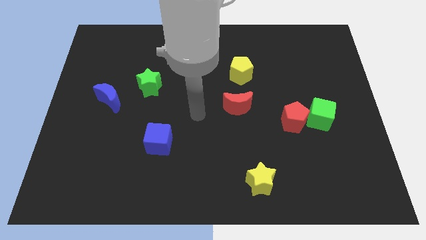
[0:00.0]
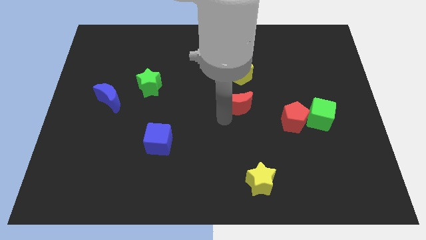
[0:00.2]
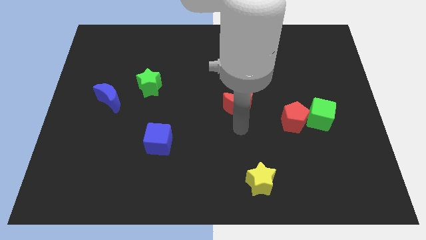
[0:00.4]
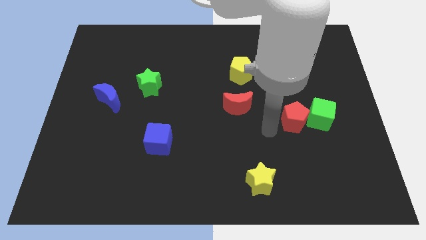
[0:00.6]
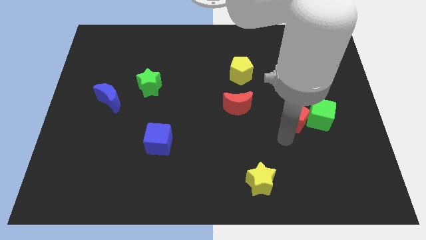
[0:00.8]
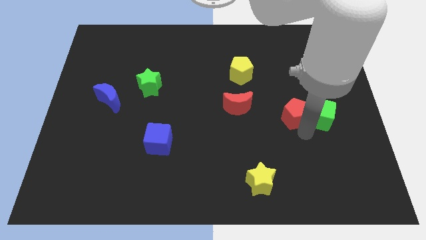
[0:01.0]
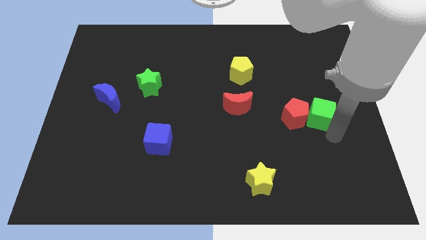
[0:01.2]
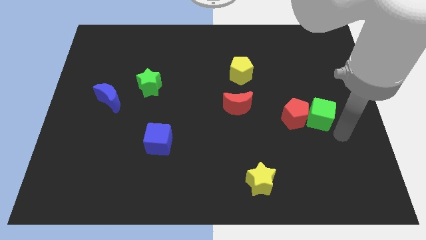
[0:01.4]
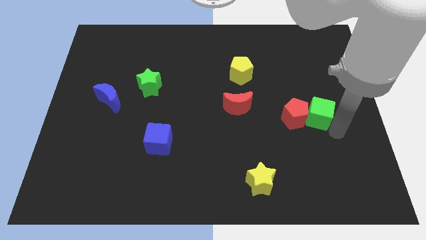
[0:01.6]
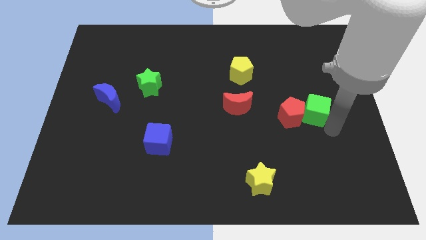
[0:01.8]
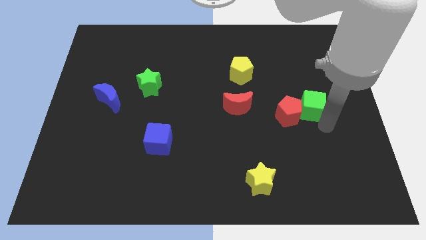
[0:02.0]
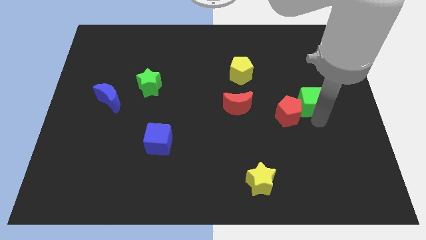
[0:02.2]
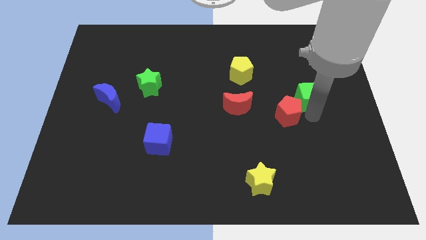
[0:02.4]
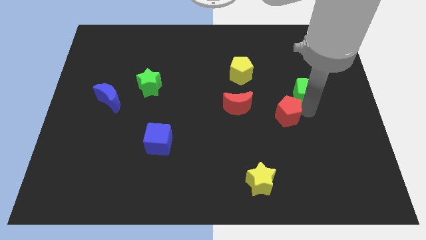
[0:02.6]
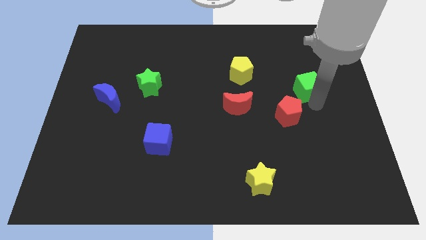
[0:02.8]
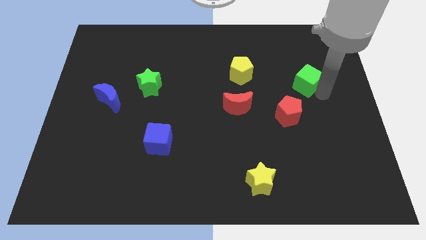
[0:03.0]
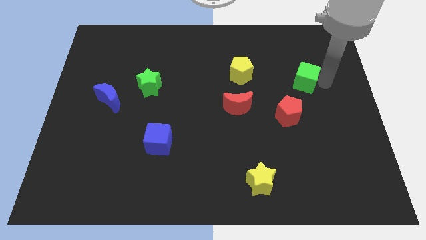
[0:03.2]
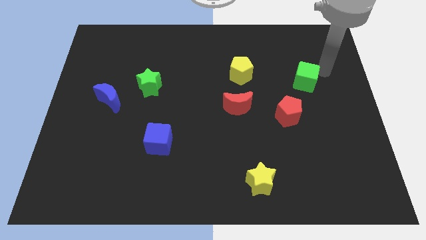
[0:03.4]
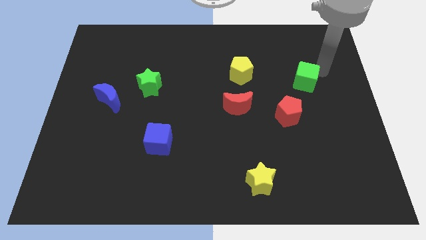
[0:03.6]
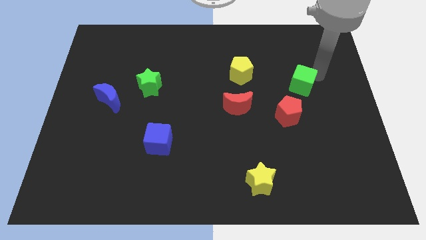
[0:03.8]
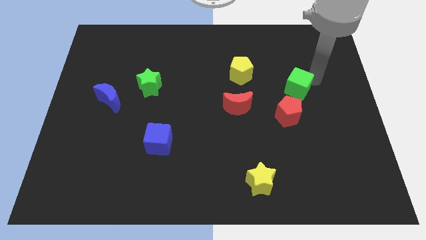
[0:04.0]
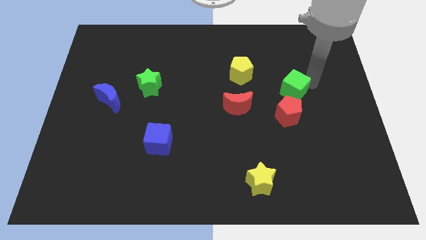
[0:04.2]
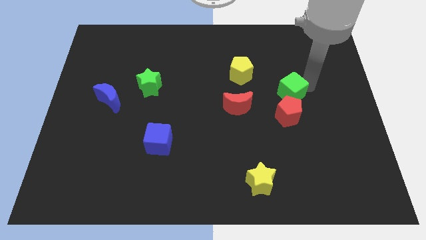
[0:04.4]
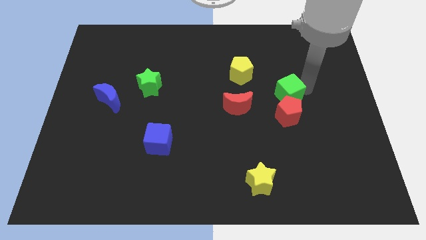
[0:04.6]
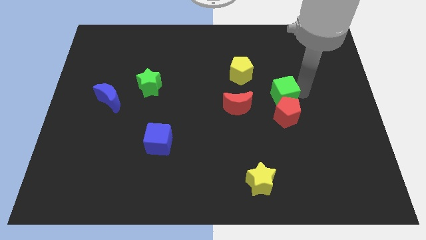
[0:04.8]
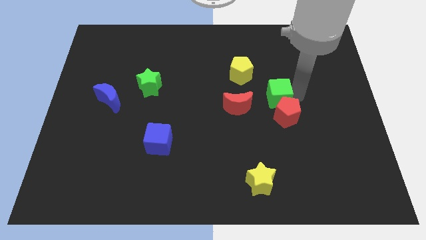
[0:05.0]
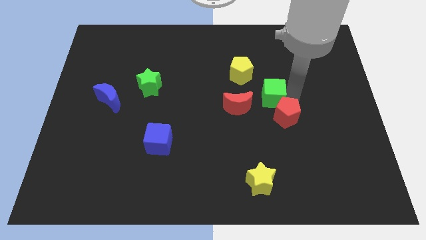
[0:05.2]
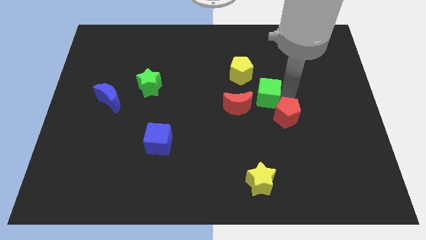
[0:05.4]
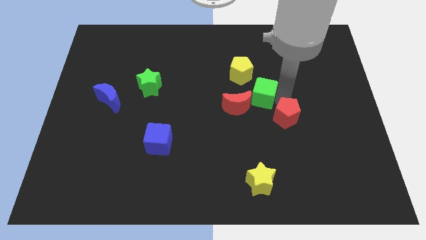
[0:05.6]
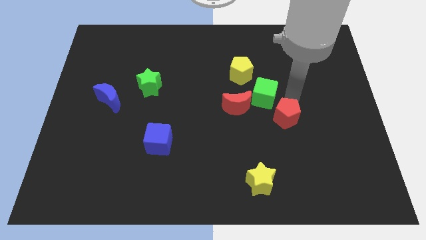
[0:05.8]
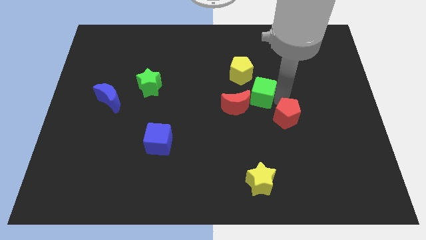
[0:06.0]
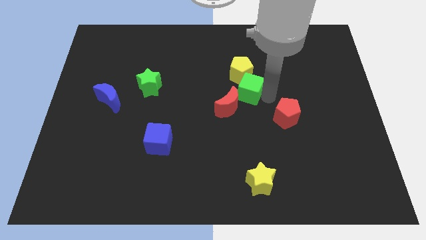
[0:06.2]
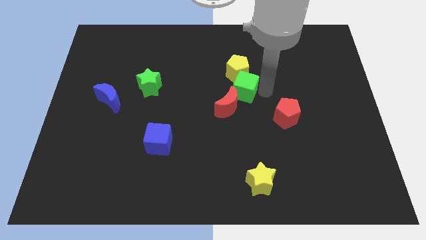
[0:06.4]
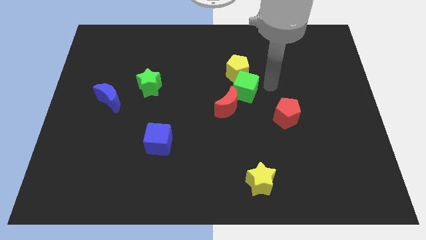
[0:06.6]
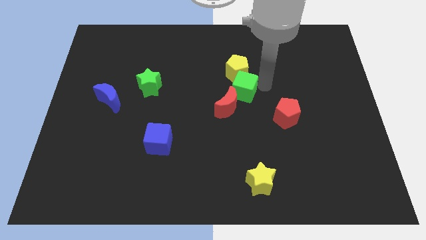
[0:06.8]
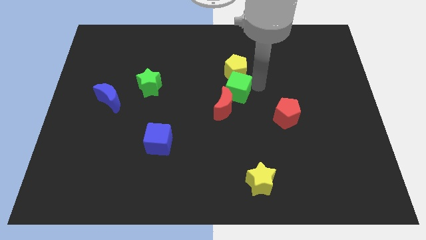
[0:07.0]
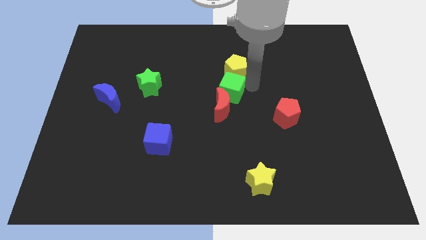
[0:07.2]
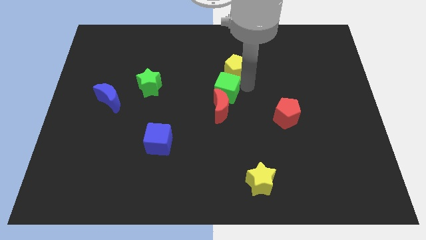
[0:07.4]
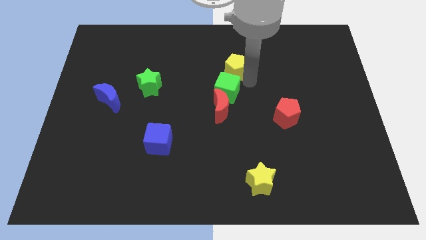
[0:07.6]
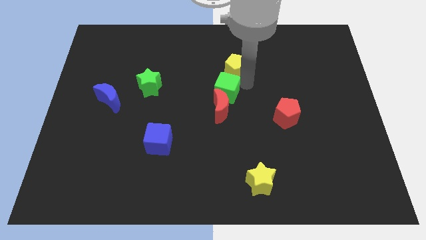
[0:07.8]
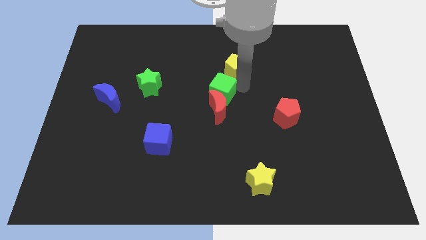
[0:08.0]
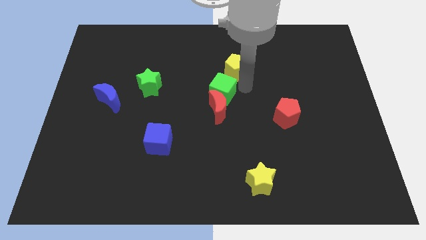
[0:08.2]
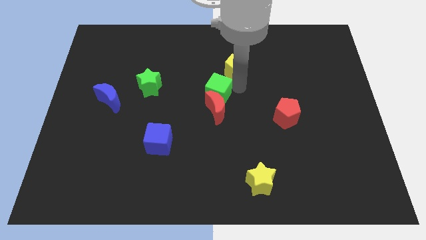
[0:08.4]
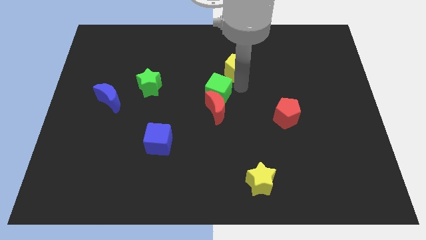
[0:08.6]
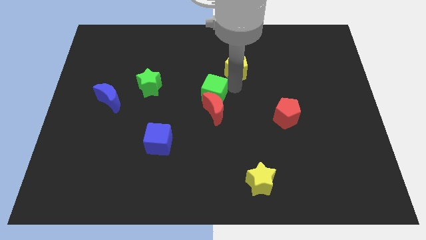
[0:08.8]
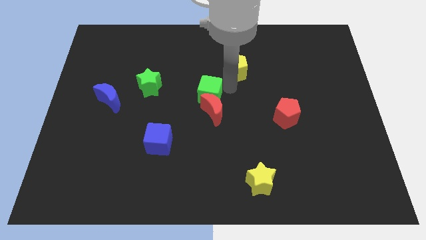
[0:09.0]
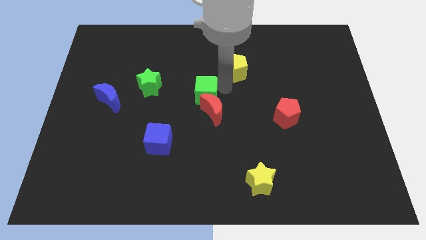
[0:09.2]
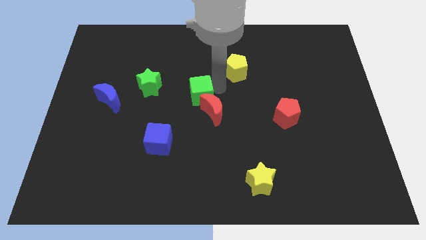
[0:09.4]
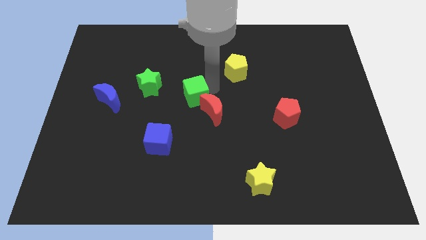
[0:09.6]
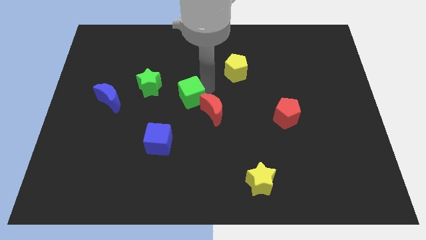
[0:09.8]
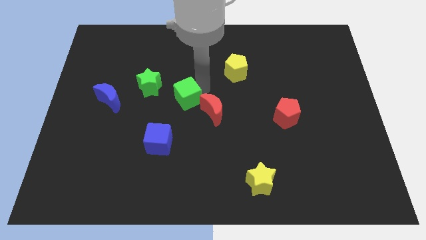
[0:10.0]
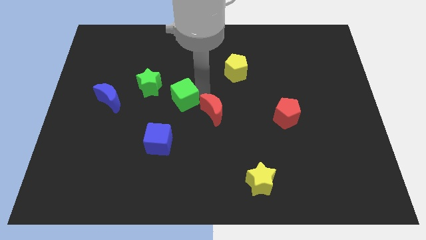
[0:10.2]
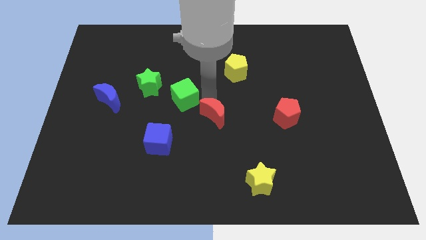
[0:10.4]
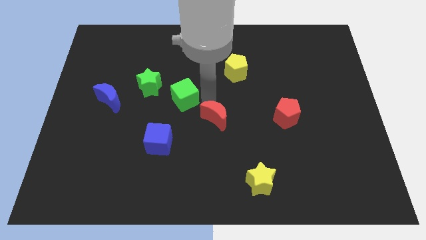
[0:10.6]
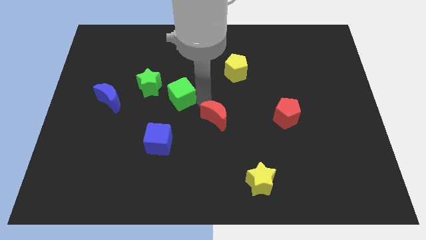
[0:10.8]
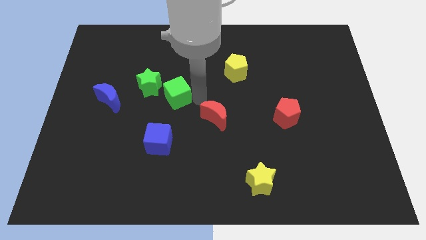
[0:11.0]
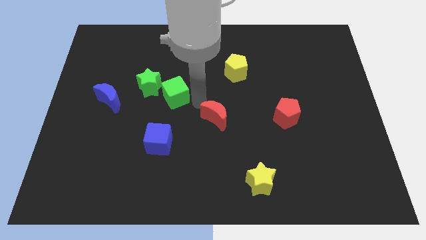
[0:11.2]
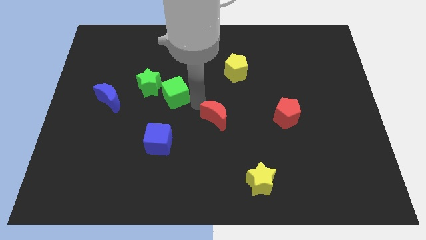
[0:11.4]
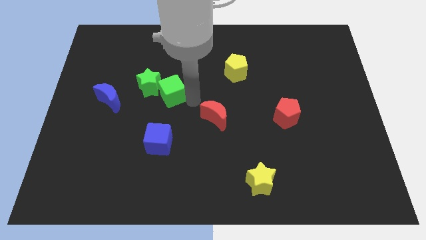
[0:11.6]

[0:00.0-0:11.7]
move the green cube close to the green star

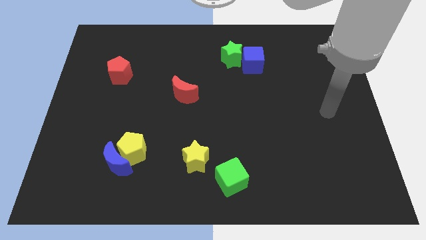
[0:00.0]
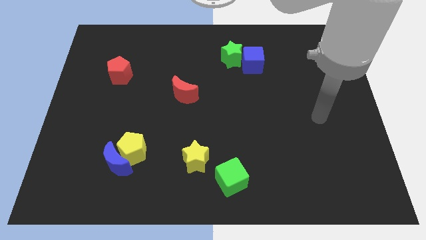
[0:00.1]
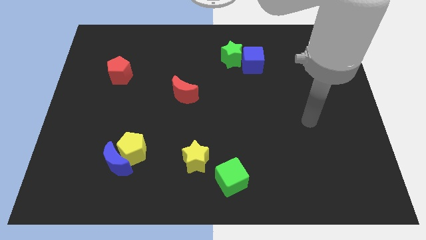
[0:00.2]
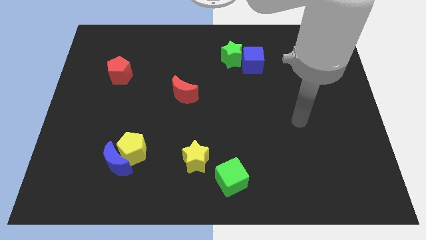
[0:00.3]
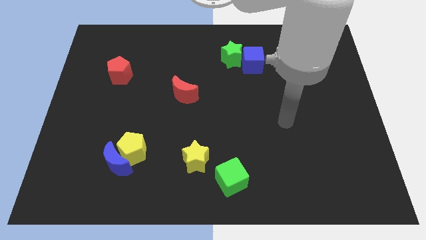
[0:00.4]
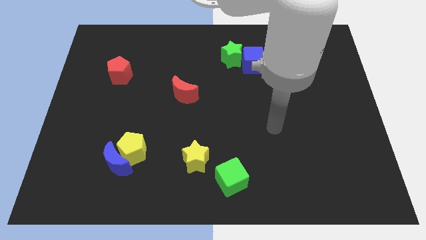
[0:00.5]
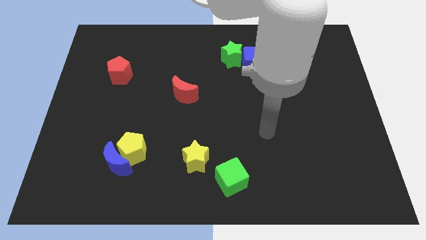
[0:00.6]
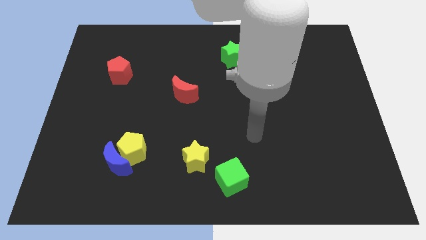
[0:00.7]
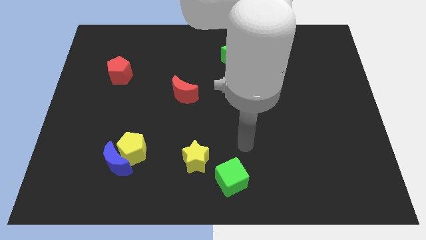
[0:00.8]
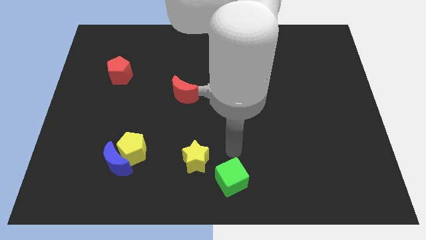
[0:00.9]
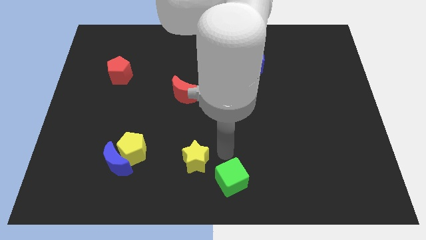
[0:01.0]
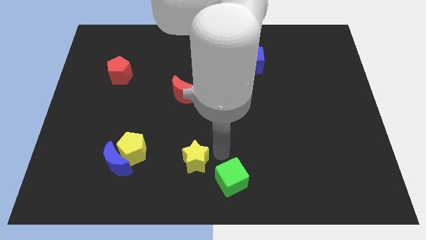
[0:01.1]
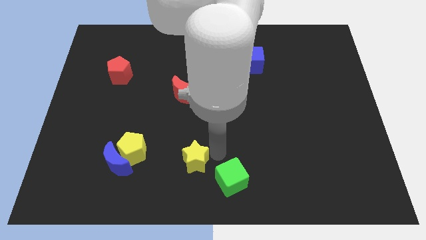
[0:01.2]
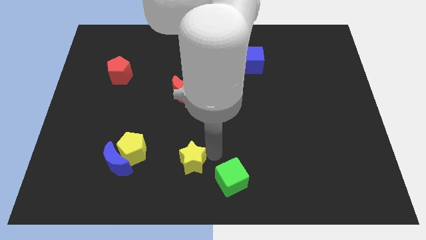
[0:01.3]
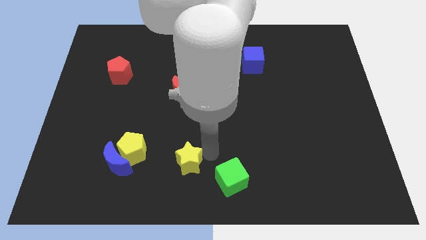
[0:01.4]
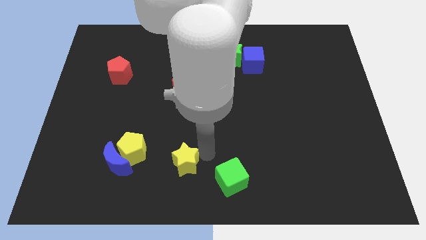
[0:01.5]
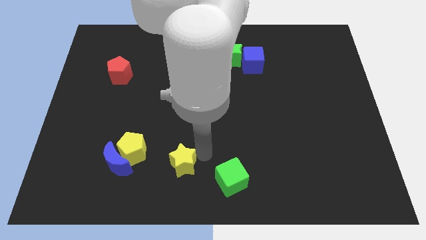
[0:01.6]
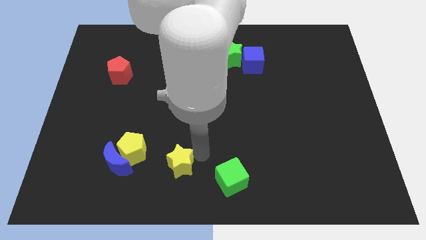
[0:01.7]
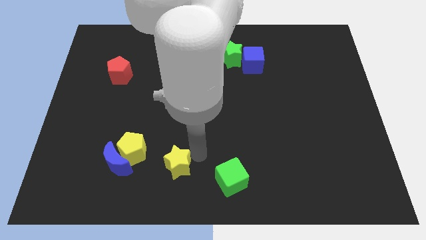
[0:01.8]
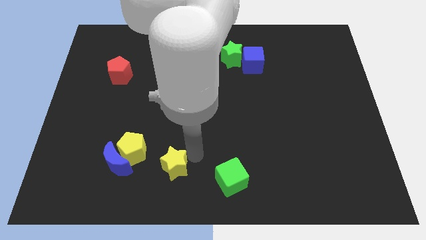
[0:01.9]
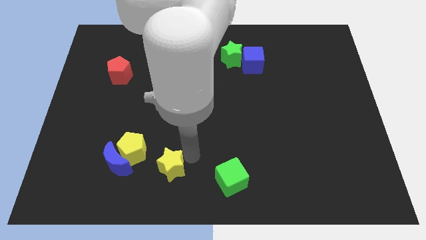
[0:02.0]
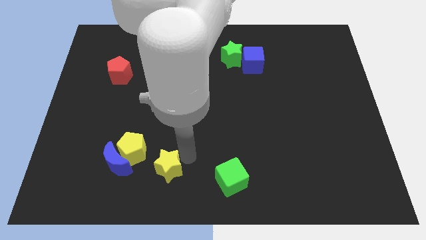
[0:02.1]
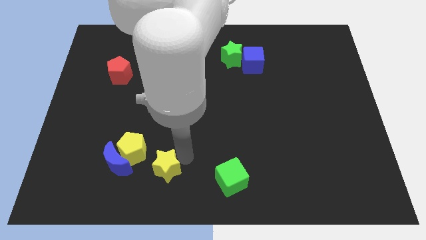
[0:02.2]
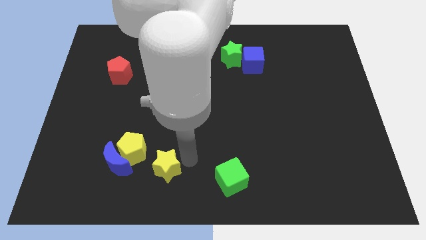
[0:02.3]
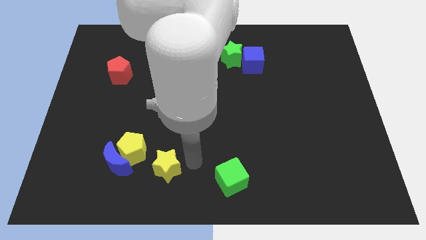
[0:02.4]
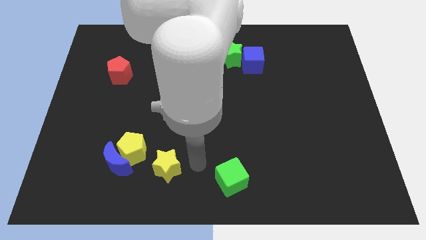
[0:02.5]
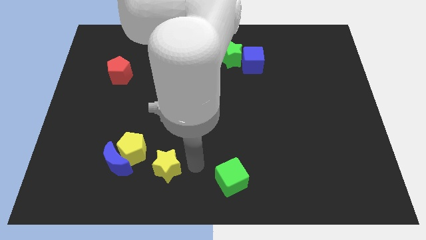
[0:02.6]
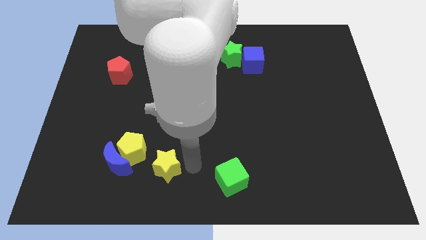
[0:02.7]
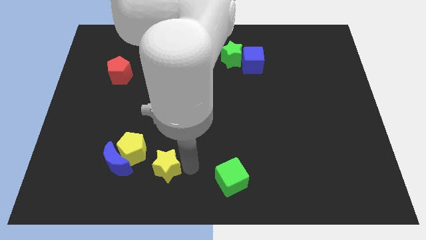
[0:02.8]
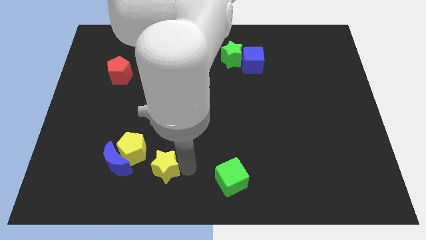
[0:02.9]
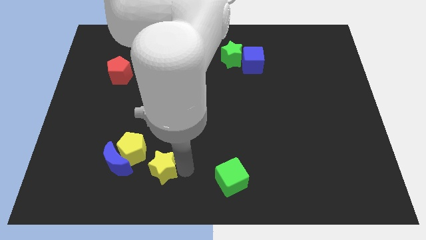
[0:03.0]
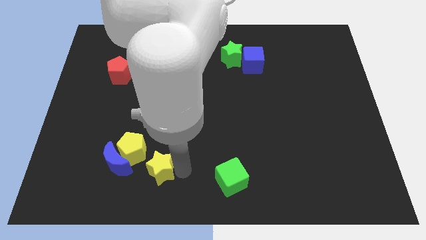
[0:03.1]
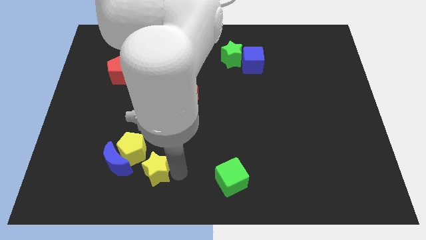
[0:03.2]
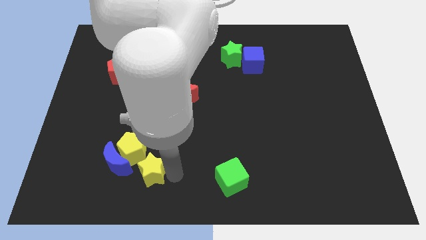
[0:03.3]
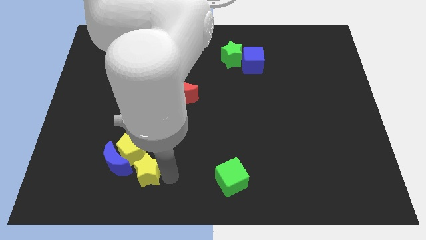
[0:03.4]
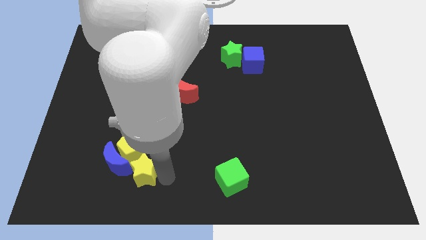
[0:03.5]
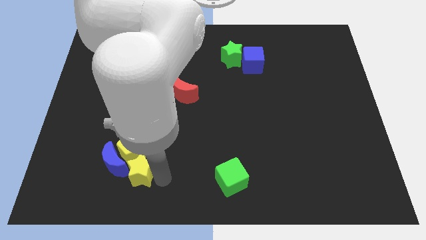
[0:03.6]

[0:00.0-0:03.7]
push the yellow star to the blue moon
